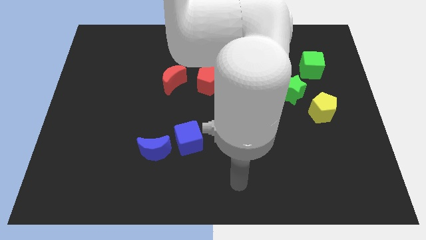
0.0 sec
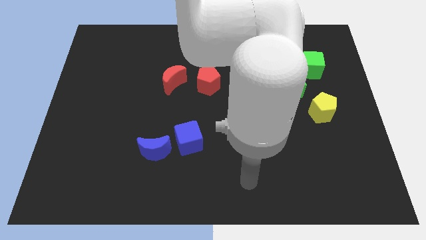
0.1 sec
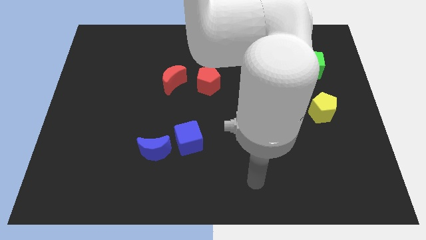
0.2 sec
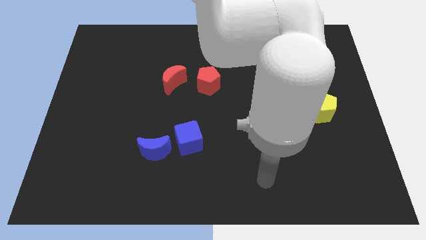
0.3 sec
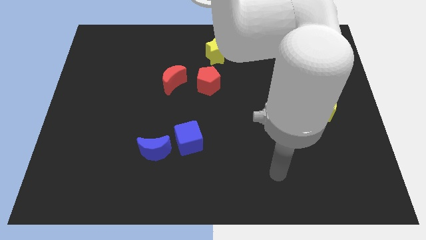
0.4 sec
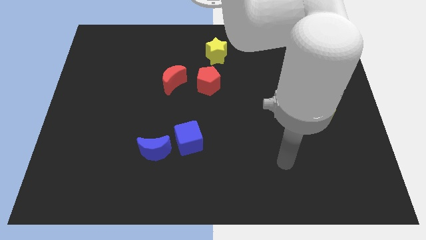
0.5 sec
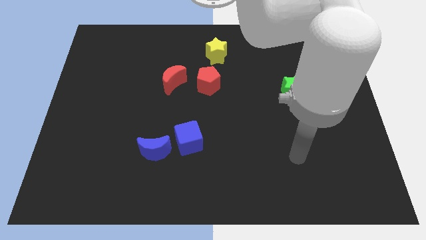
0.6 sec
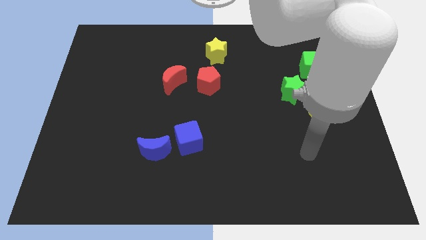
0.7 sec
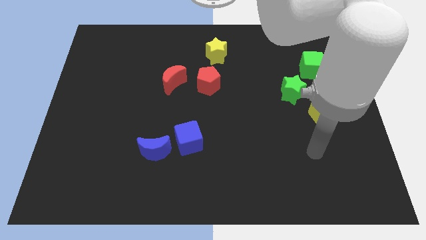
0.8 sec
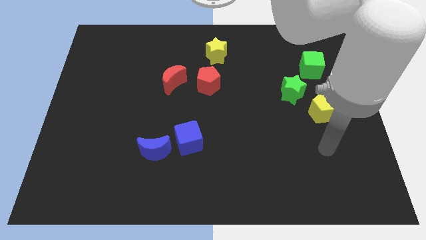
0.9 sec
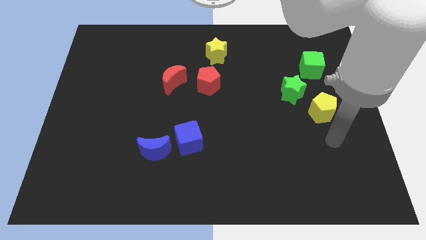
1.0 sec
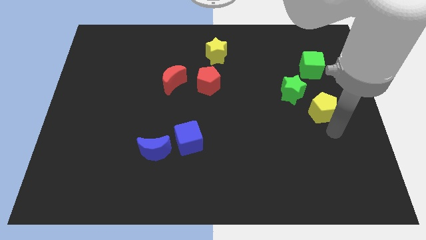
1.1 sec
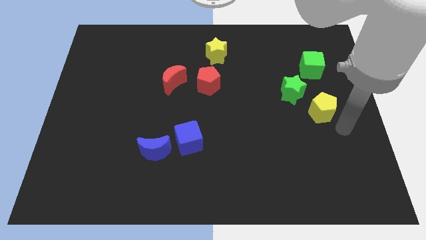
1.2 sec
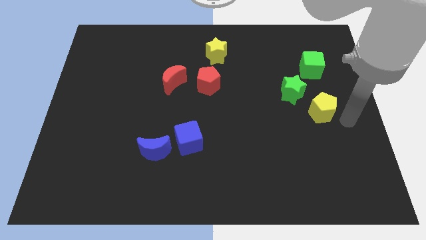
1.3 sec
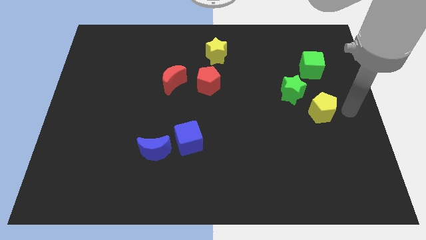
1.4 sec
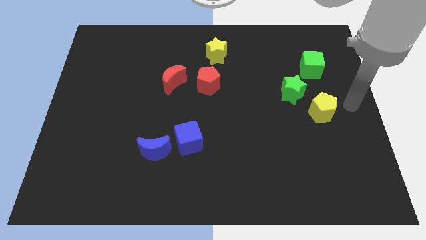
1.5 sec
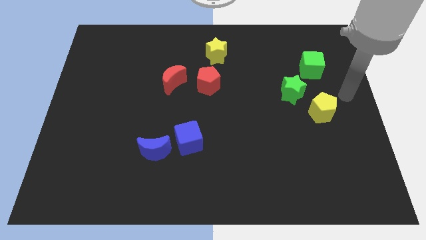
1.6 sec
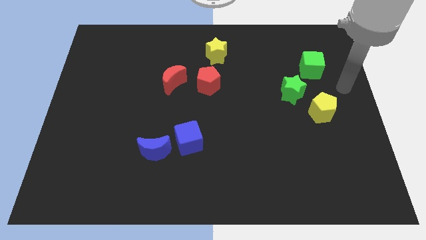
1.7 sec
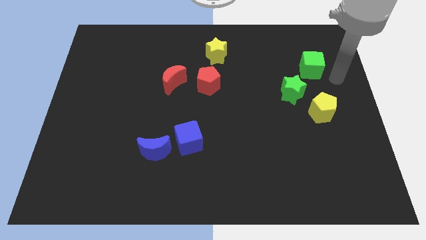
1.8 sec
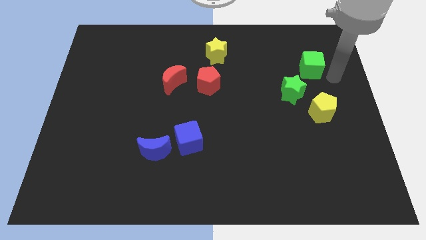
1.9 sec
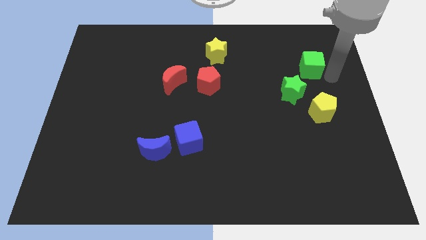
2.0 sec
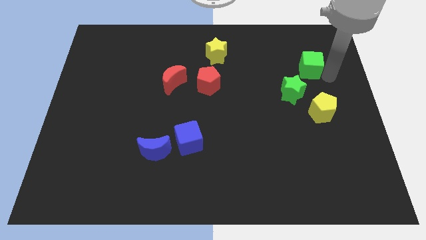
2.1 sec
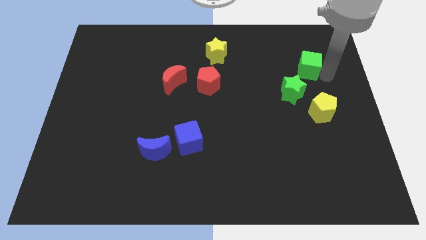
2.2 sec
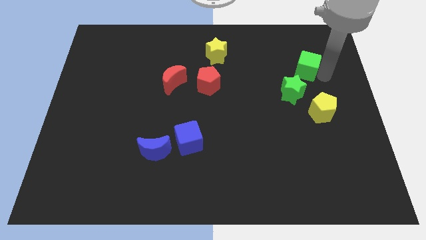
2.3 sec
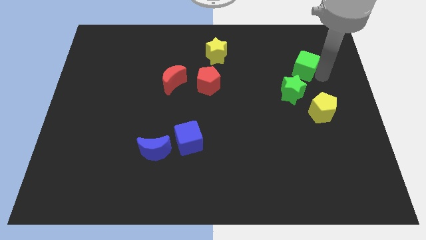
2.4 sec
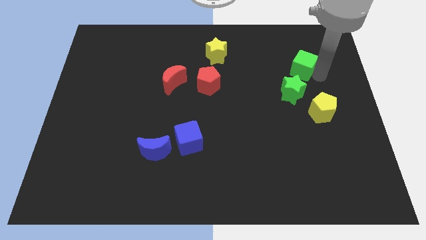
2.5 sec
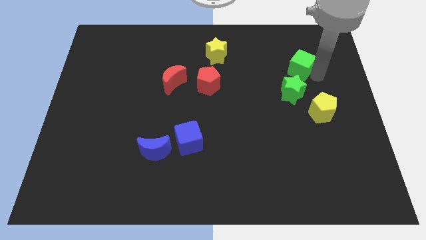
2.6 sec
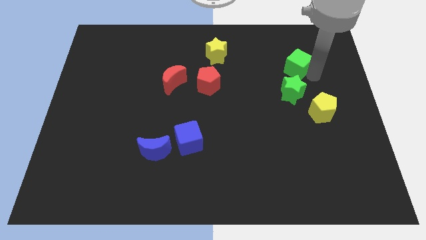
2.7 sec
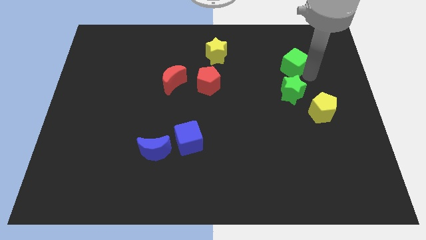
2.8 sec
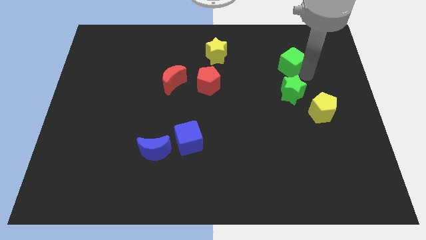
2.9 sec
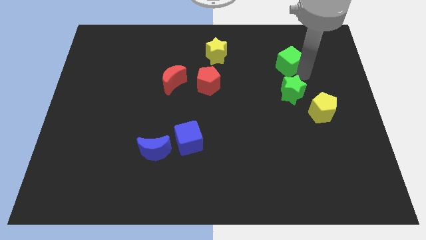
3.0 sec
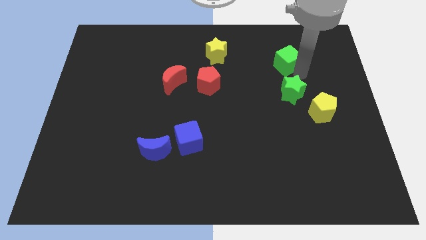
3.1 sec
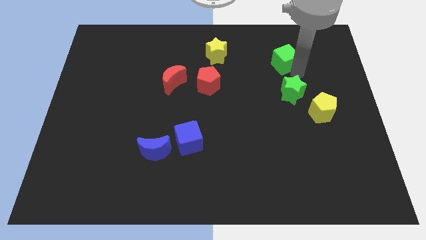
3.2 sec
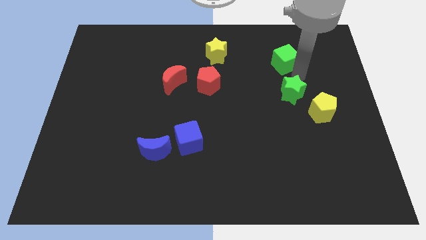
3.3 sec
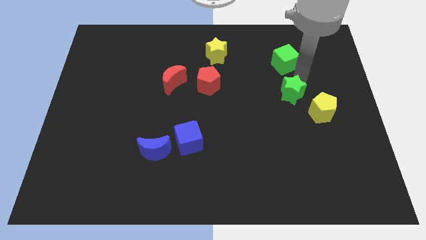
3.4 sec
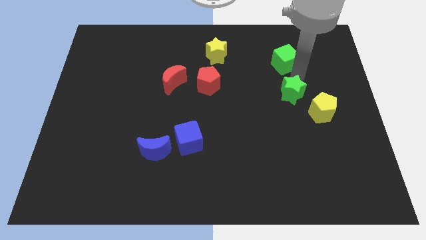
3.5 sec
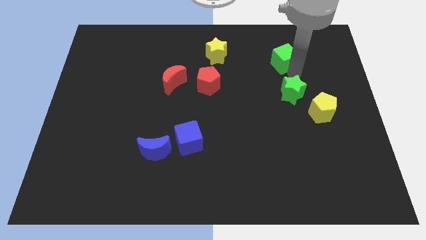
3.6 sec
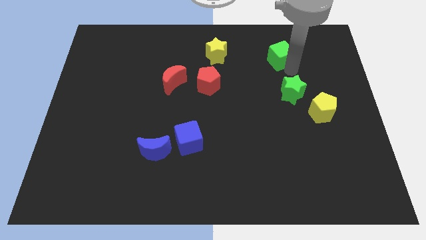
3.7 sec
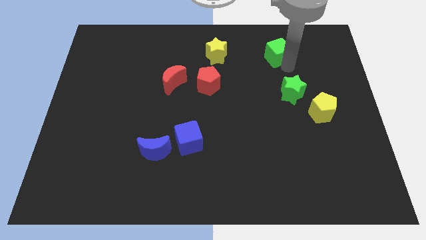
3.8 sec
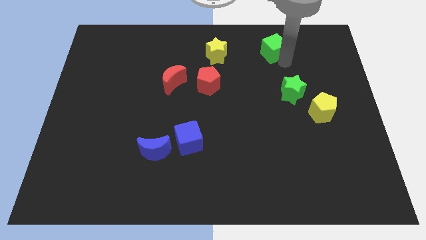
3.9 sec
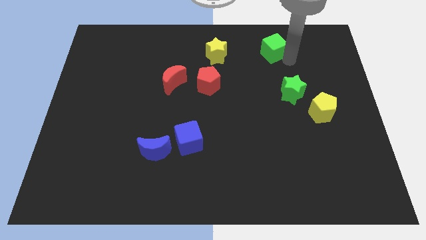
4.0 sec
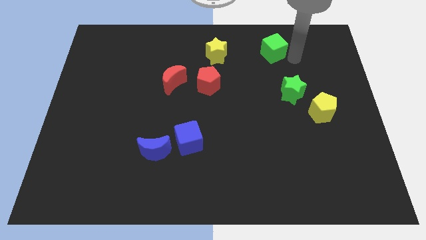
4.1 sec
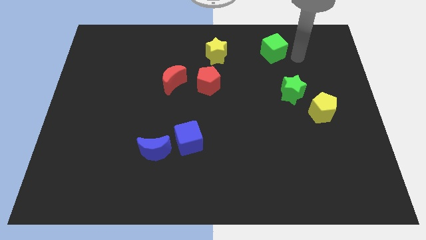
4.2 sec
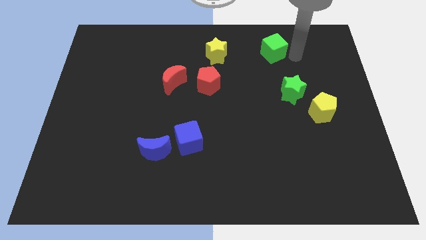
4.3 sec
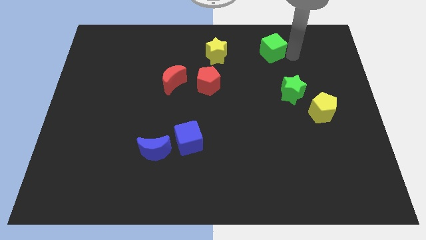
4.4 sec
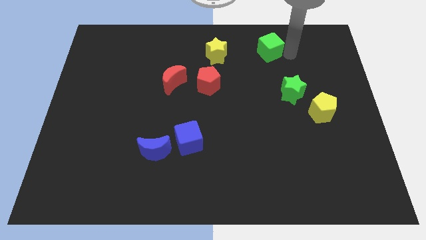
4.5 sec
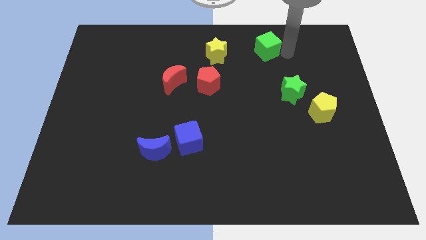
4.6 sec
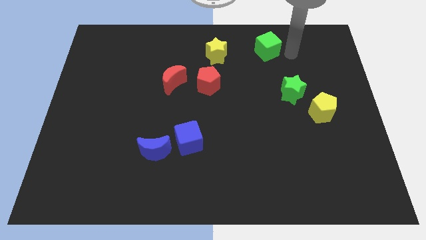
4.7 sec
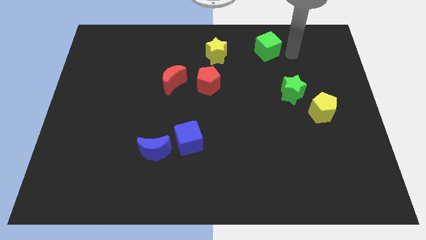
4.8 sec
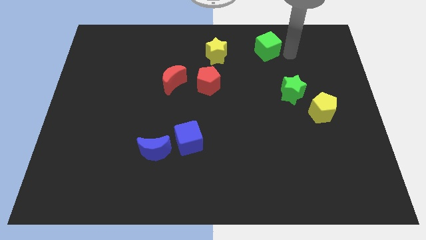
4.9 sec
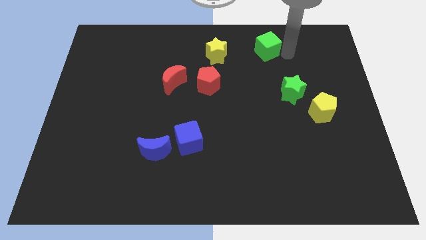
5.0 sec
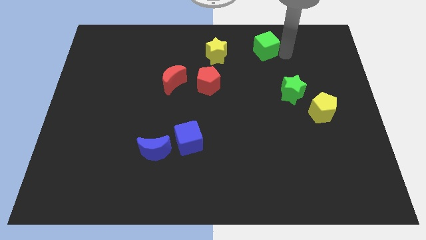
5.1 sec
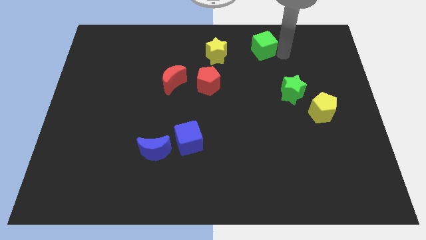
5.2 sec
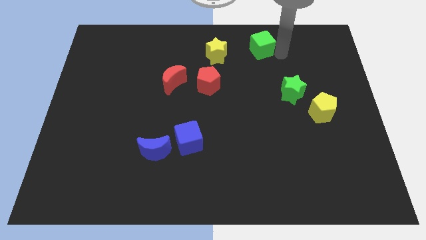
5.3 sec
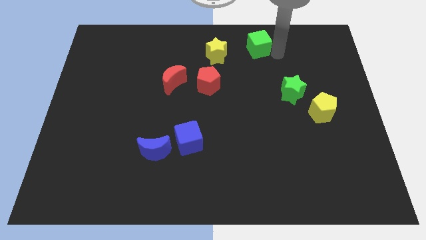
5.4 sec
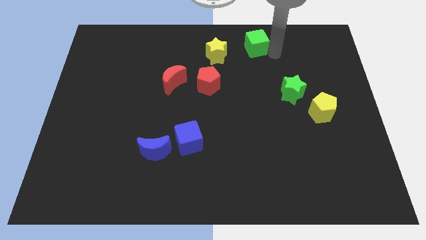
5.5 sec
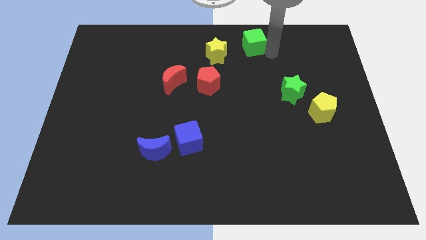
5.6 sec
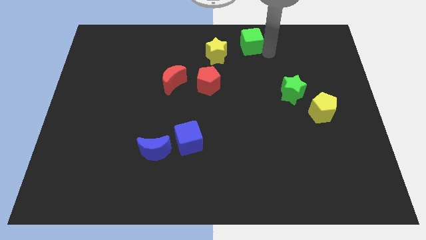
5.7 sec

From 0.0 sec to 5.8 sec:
move the green cube to the top

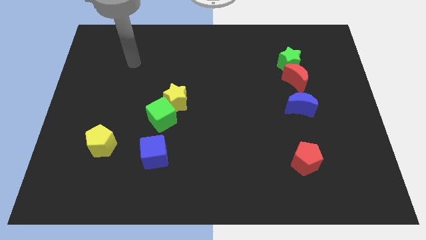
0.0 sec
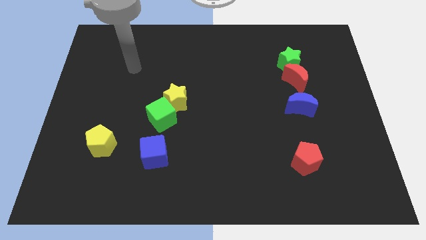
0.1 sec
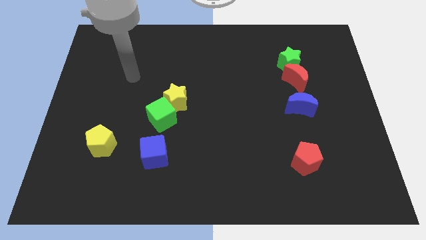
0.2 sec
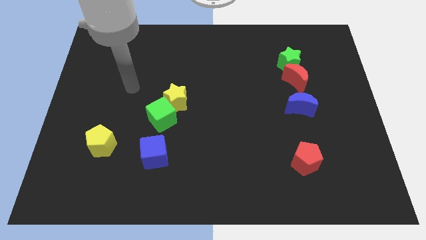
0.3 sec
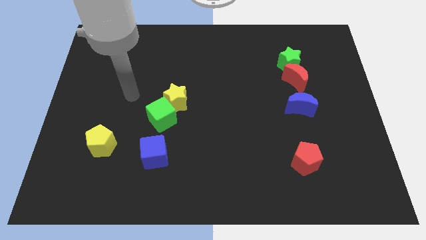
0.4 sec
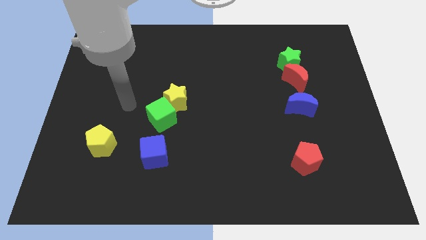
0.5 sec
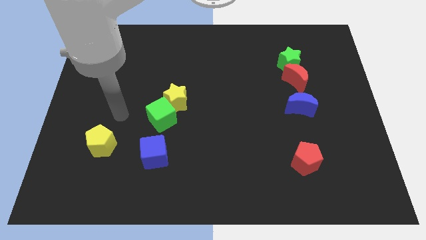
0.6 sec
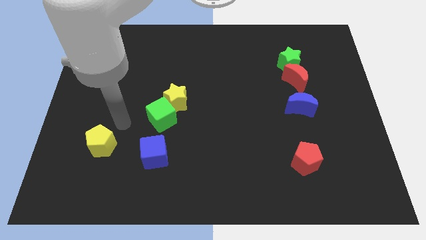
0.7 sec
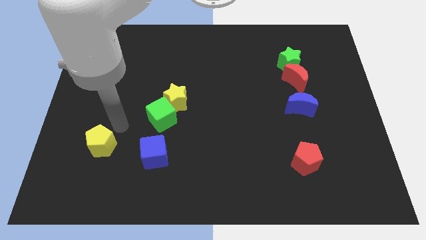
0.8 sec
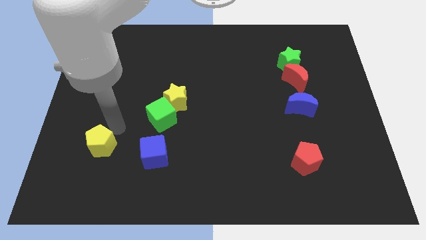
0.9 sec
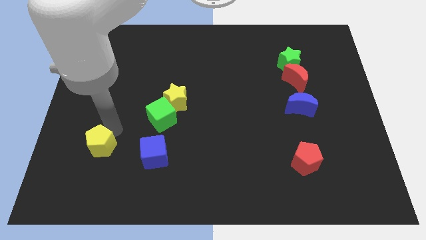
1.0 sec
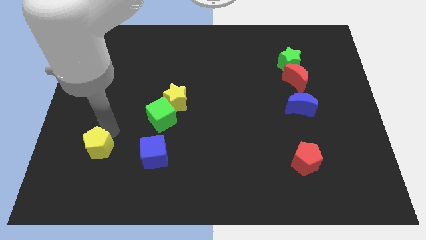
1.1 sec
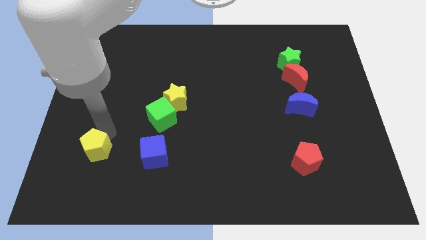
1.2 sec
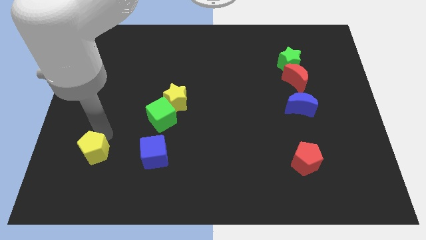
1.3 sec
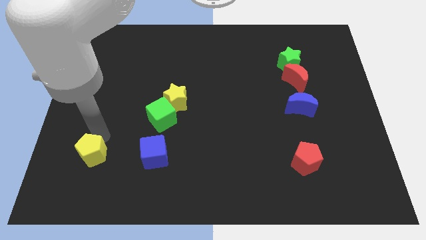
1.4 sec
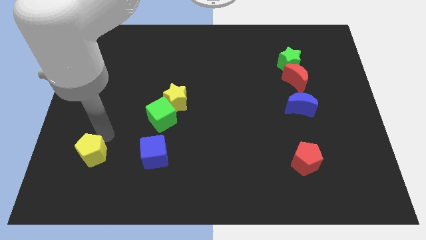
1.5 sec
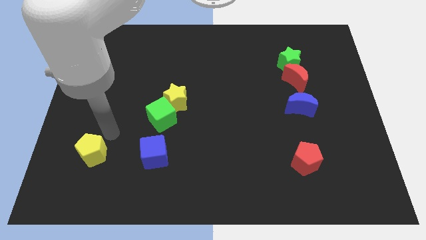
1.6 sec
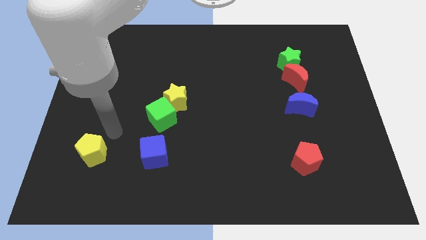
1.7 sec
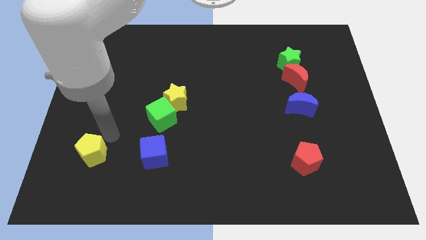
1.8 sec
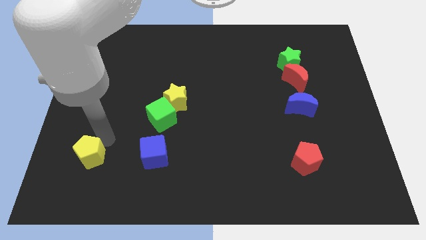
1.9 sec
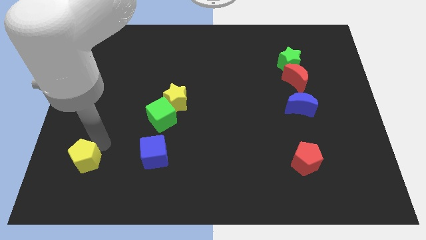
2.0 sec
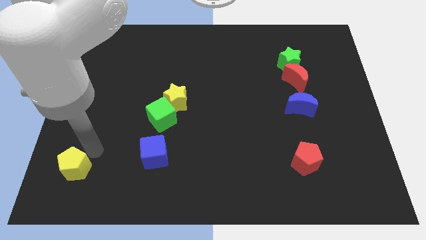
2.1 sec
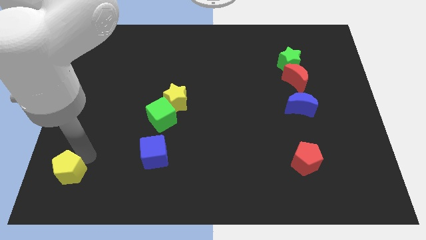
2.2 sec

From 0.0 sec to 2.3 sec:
push the yellow pentagon to the bottom left
